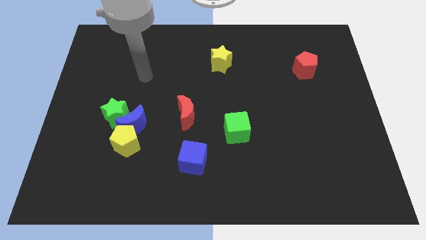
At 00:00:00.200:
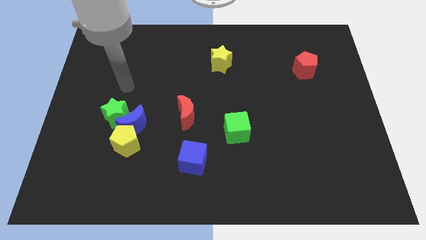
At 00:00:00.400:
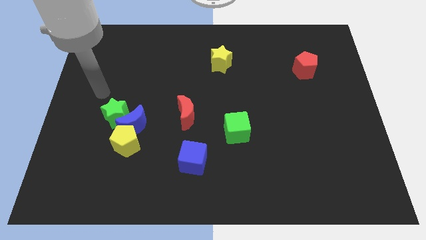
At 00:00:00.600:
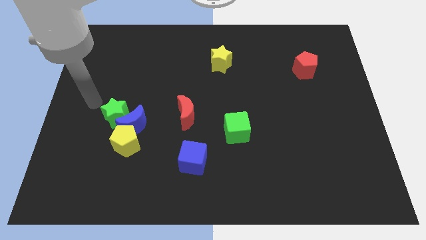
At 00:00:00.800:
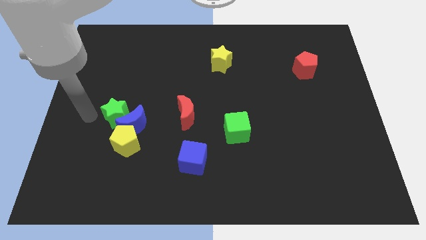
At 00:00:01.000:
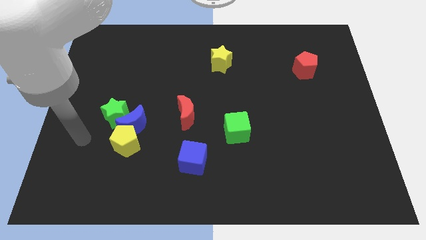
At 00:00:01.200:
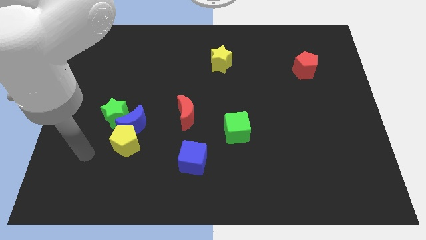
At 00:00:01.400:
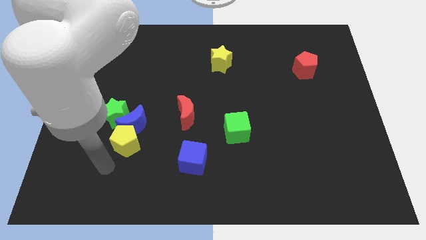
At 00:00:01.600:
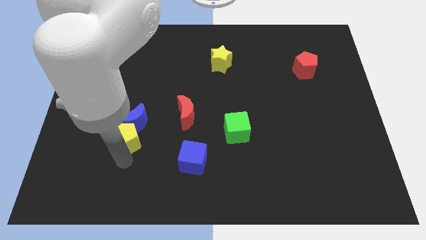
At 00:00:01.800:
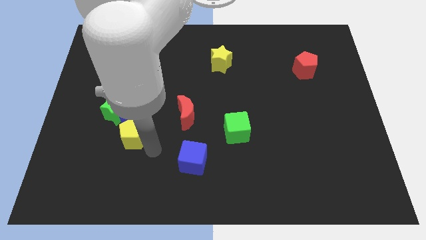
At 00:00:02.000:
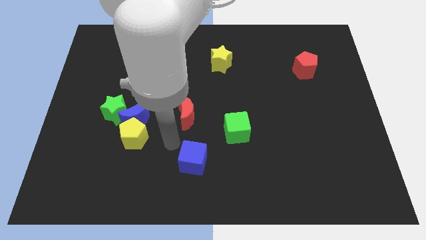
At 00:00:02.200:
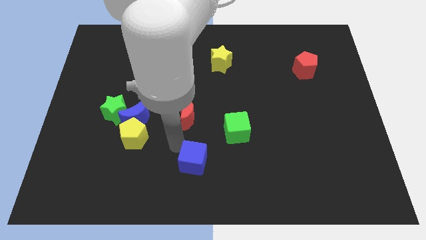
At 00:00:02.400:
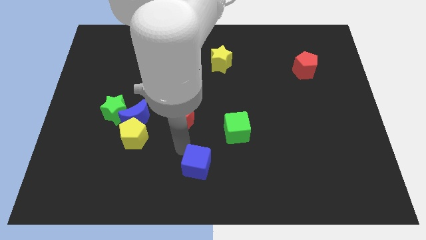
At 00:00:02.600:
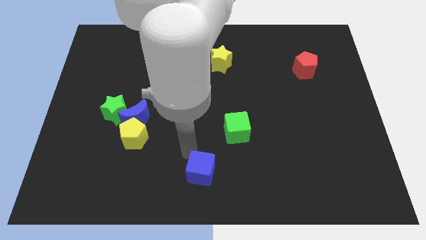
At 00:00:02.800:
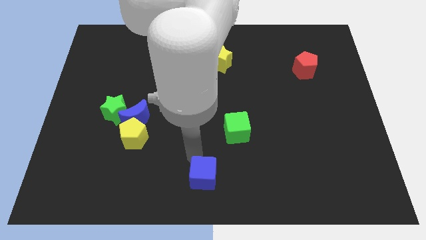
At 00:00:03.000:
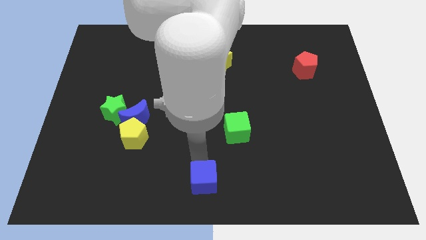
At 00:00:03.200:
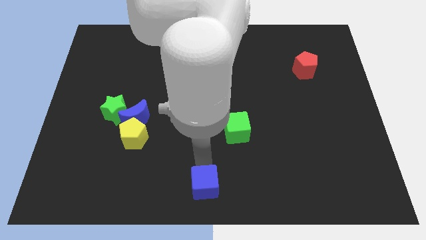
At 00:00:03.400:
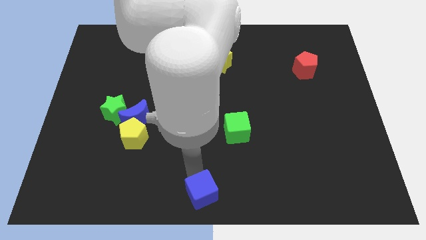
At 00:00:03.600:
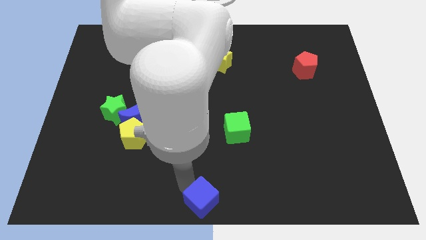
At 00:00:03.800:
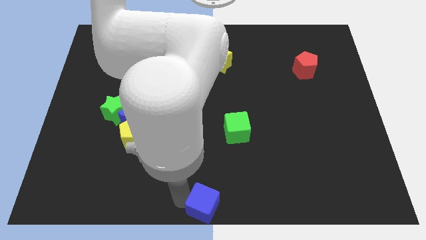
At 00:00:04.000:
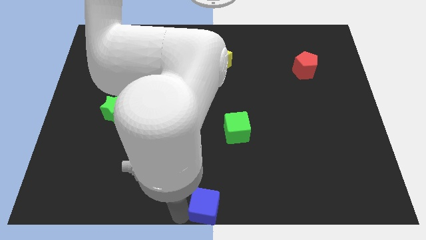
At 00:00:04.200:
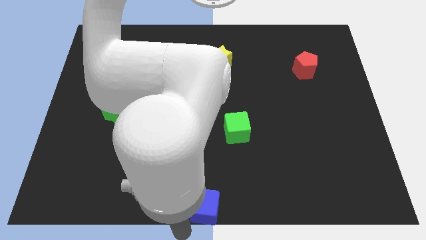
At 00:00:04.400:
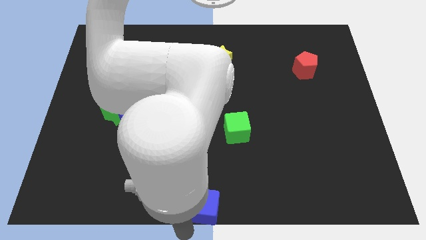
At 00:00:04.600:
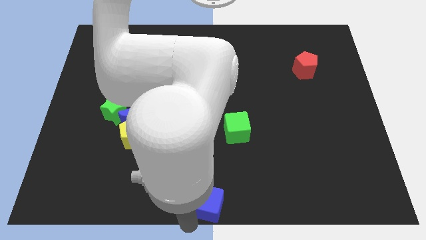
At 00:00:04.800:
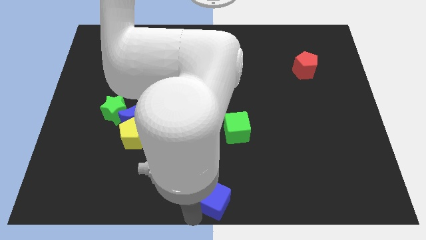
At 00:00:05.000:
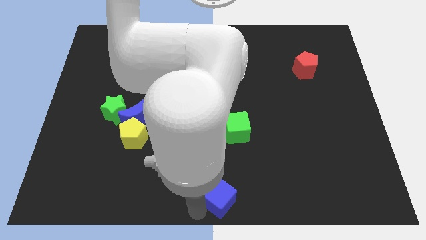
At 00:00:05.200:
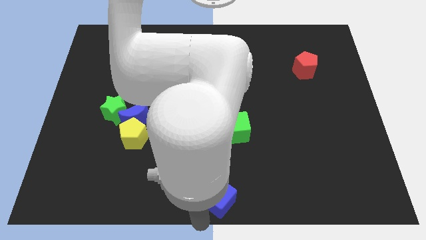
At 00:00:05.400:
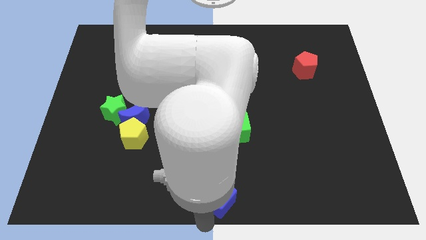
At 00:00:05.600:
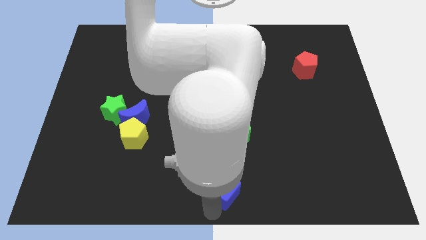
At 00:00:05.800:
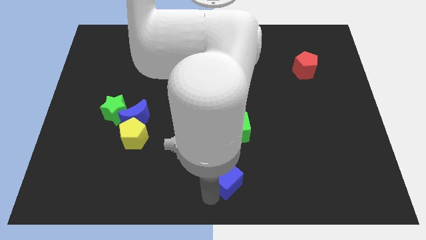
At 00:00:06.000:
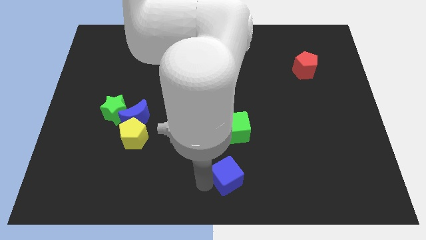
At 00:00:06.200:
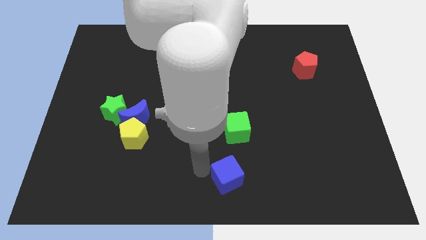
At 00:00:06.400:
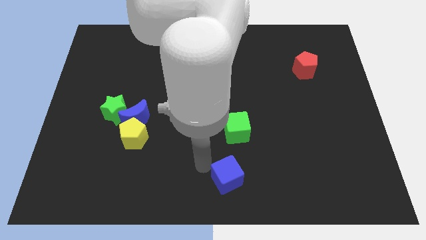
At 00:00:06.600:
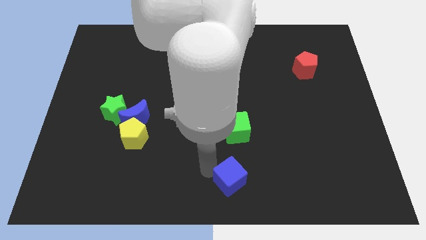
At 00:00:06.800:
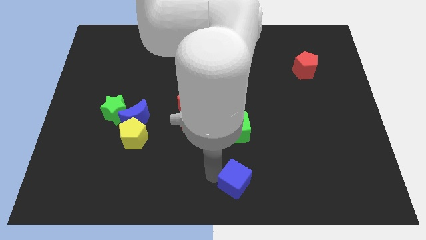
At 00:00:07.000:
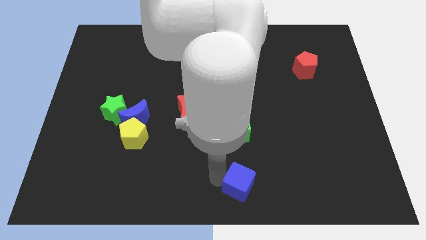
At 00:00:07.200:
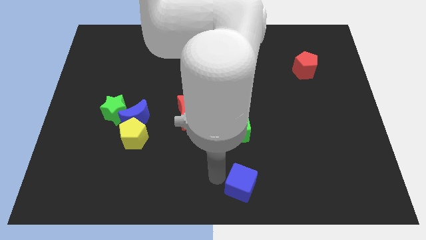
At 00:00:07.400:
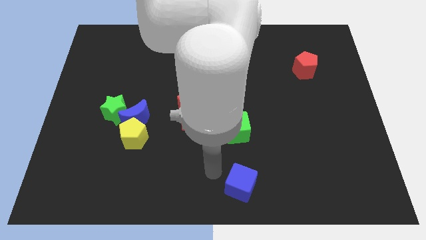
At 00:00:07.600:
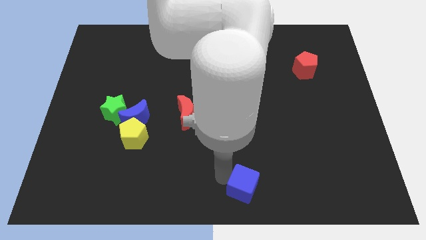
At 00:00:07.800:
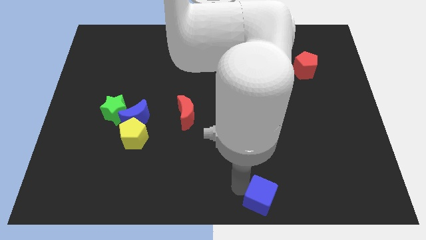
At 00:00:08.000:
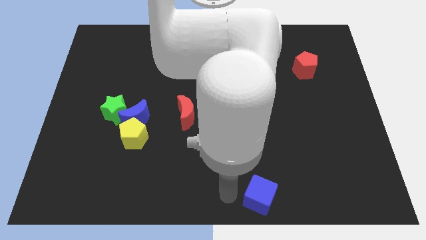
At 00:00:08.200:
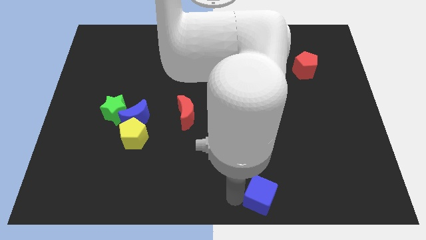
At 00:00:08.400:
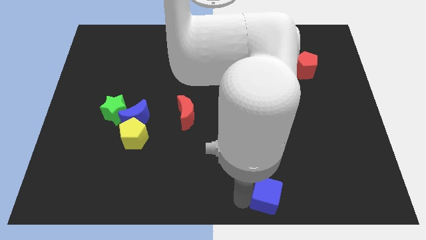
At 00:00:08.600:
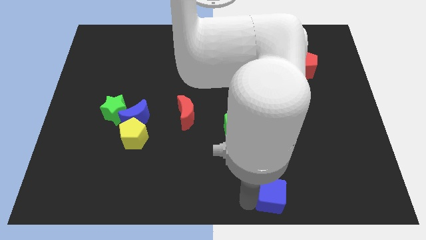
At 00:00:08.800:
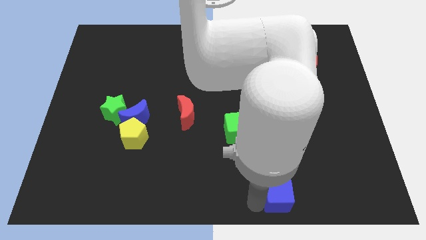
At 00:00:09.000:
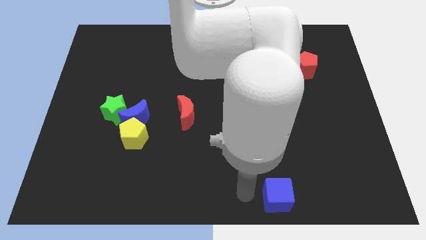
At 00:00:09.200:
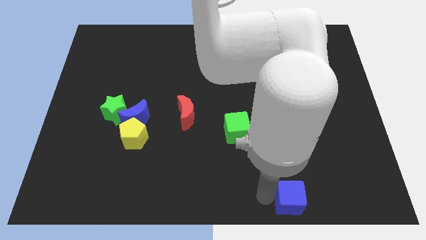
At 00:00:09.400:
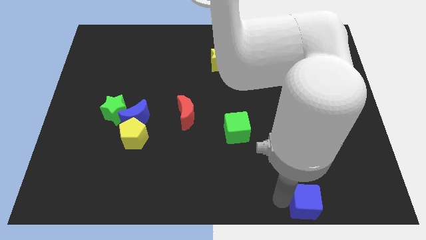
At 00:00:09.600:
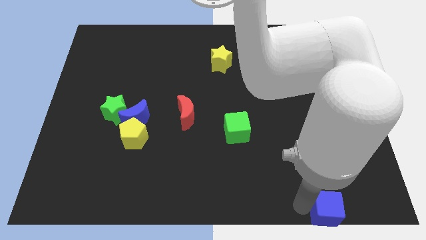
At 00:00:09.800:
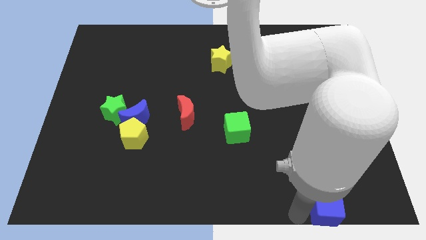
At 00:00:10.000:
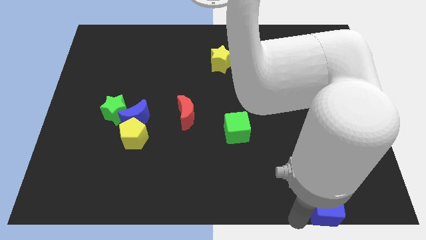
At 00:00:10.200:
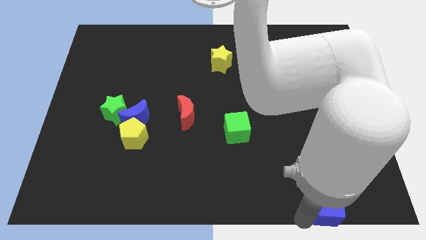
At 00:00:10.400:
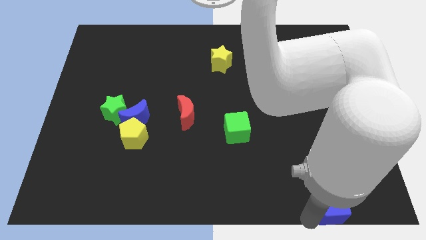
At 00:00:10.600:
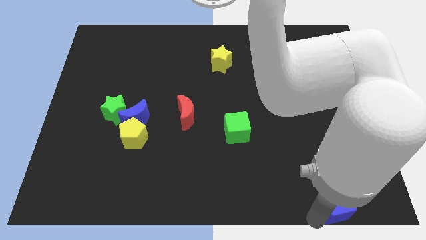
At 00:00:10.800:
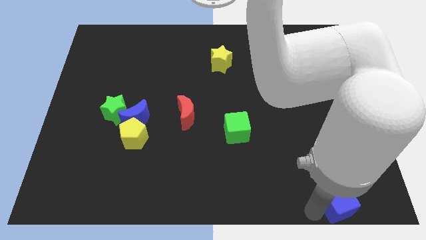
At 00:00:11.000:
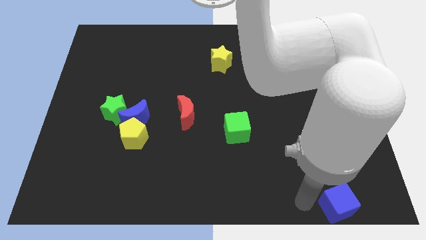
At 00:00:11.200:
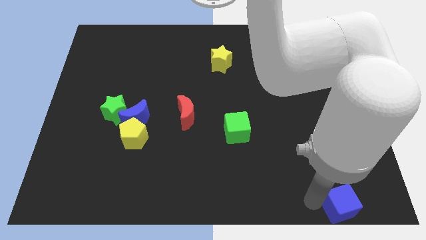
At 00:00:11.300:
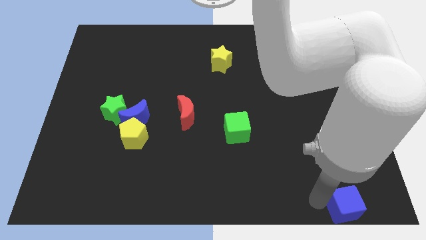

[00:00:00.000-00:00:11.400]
put the blue cube to the bottom right
